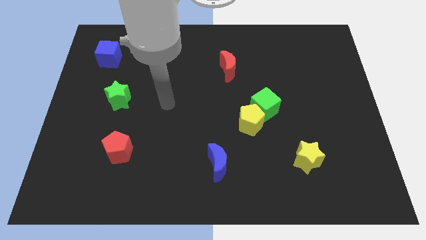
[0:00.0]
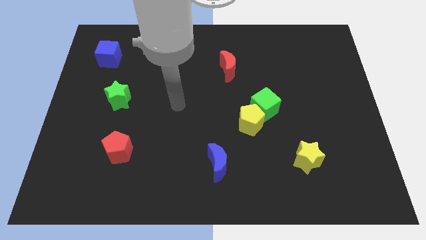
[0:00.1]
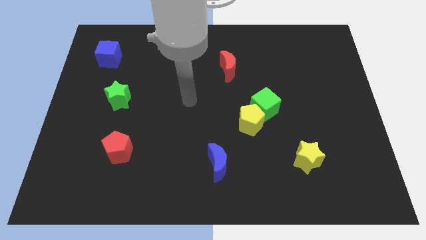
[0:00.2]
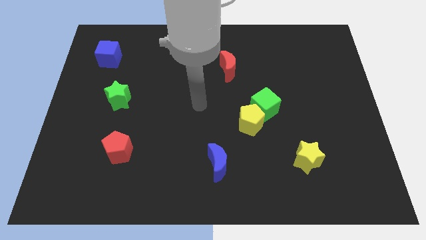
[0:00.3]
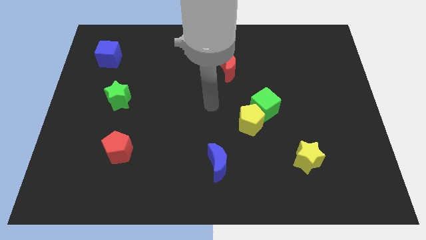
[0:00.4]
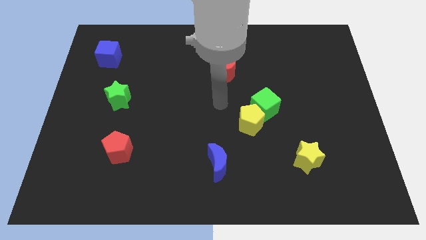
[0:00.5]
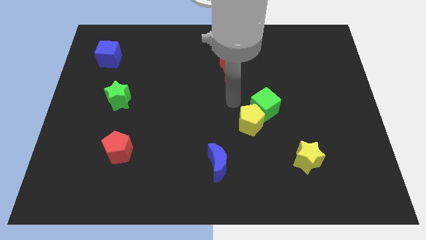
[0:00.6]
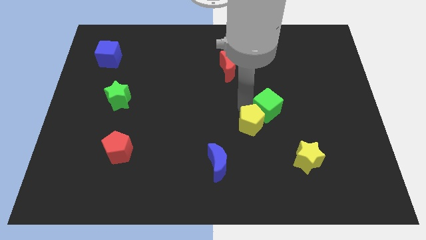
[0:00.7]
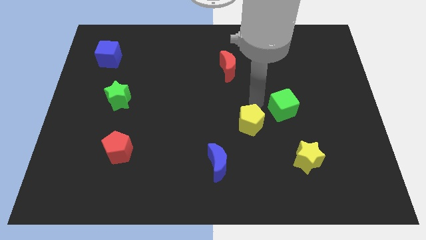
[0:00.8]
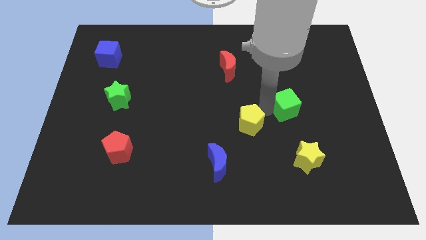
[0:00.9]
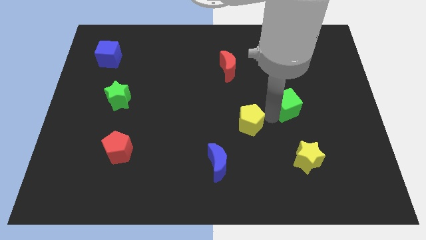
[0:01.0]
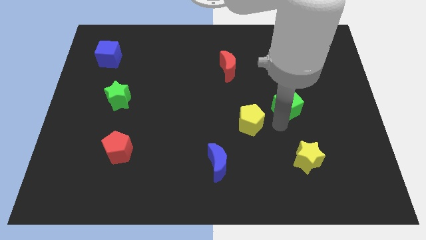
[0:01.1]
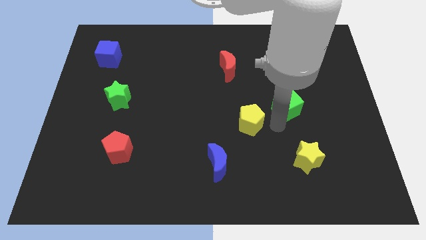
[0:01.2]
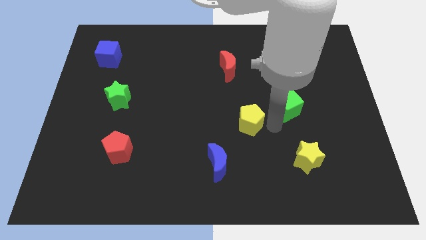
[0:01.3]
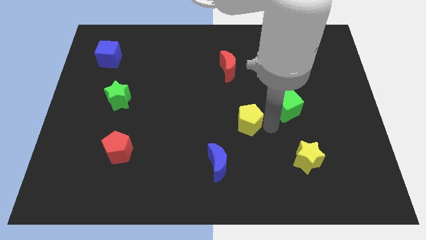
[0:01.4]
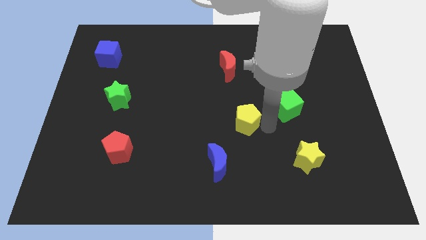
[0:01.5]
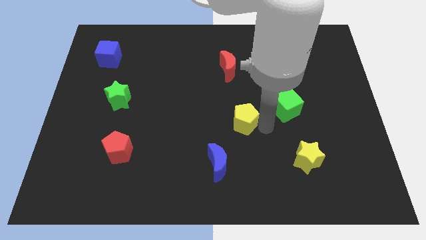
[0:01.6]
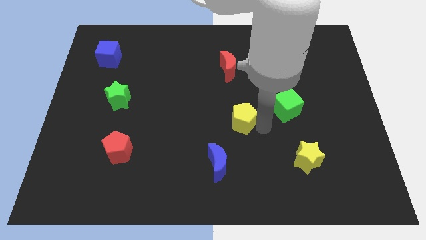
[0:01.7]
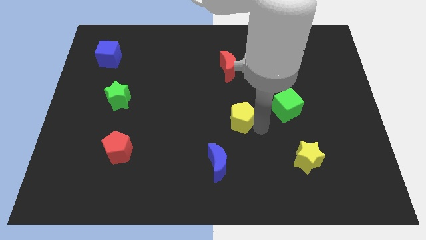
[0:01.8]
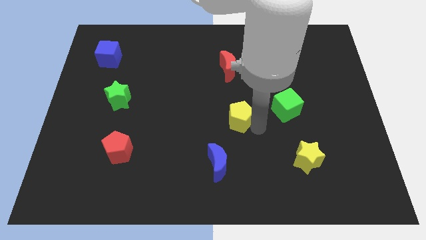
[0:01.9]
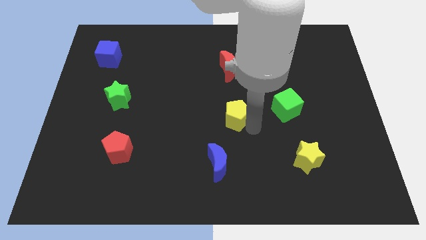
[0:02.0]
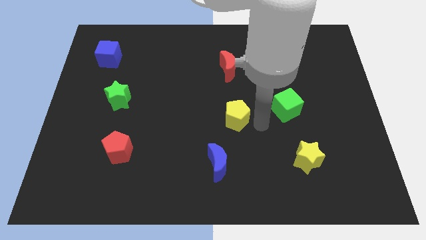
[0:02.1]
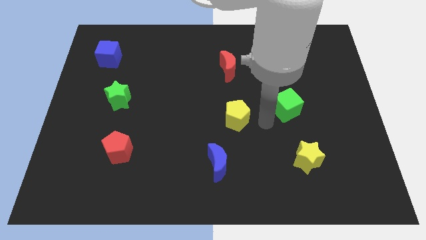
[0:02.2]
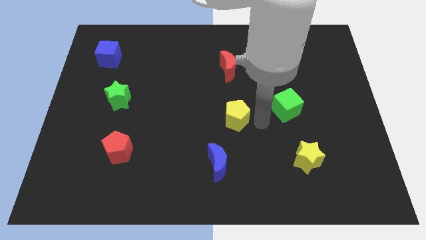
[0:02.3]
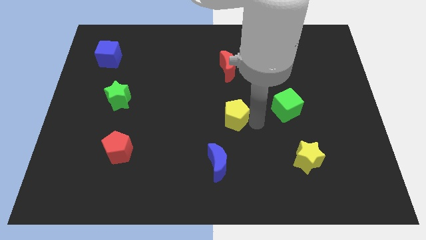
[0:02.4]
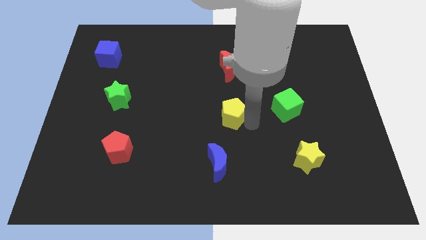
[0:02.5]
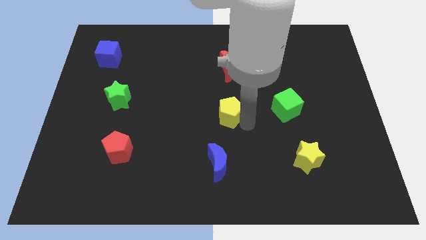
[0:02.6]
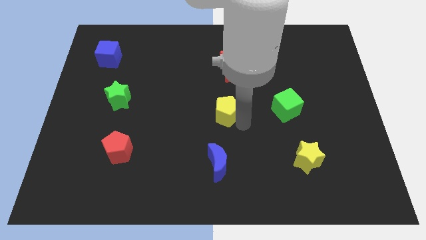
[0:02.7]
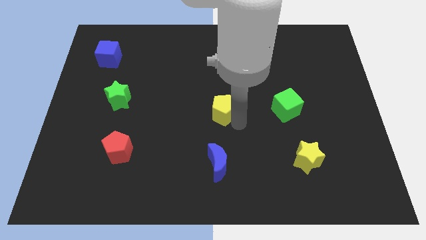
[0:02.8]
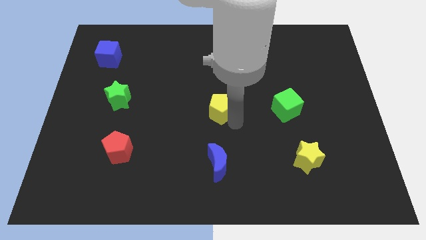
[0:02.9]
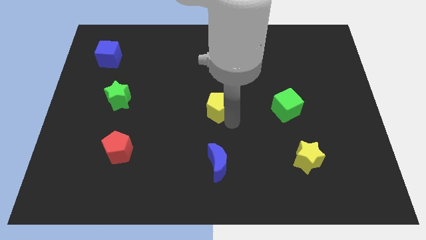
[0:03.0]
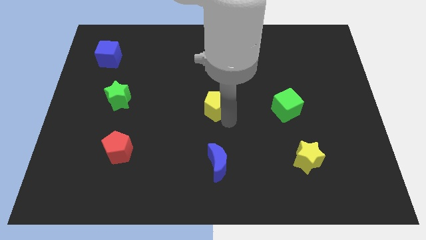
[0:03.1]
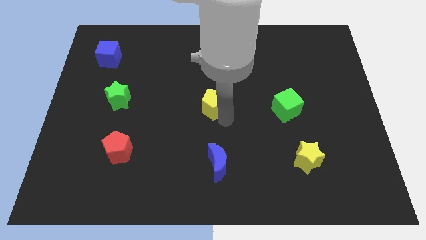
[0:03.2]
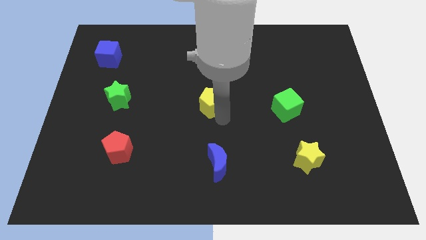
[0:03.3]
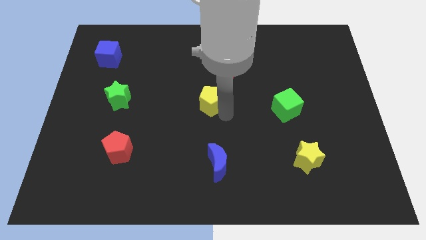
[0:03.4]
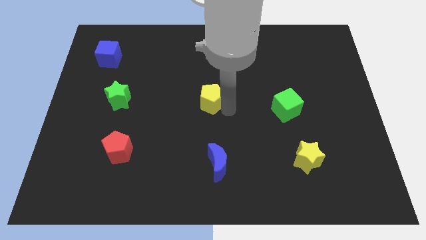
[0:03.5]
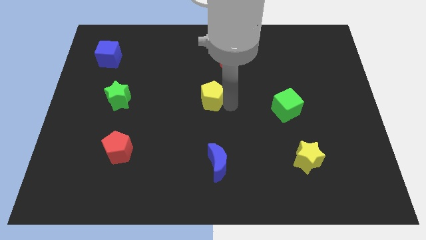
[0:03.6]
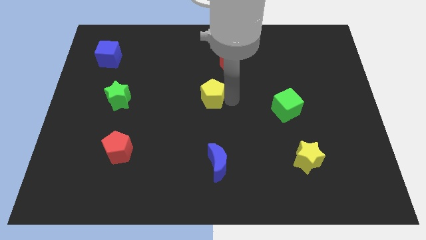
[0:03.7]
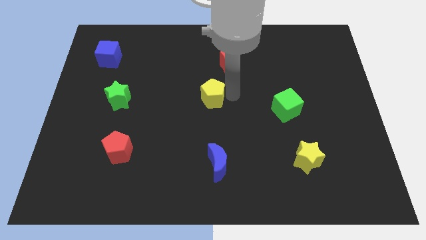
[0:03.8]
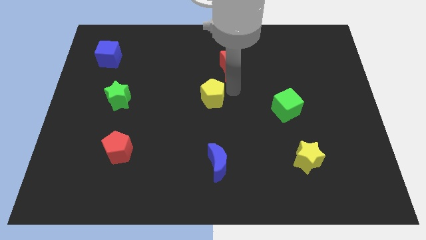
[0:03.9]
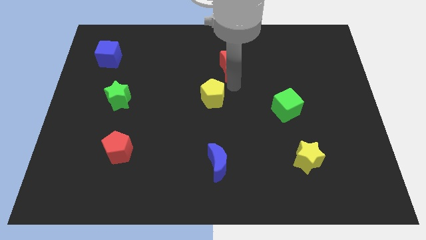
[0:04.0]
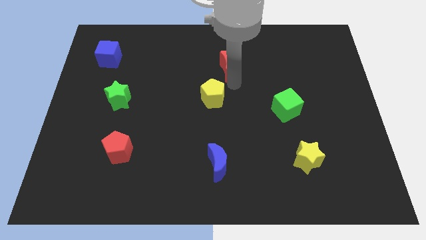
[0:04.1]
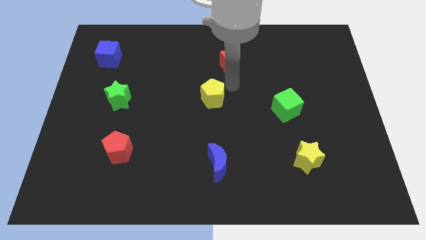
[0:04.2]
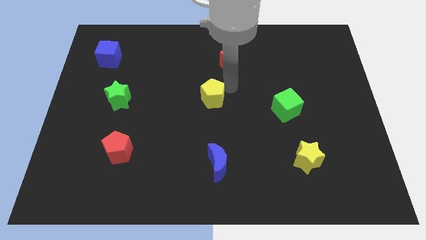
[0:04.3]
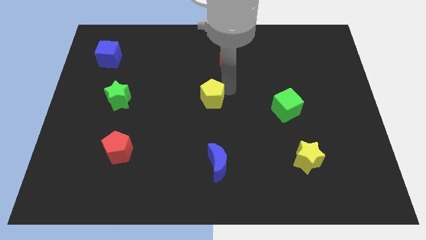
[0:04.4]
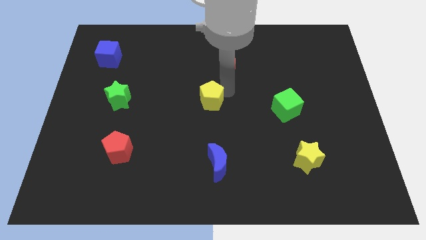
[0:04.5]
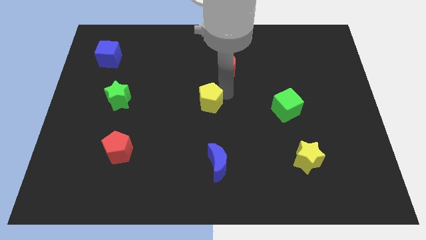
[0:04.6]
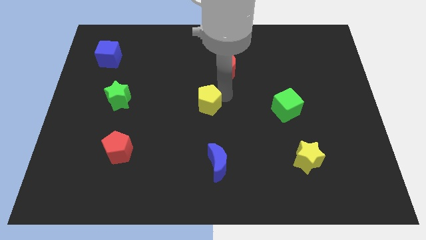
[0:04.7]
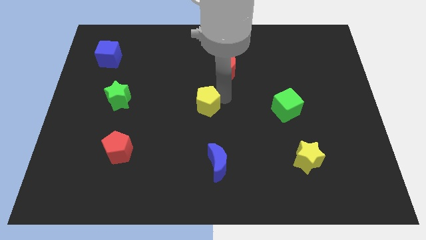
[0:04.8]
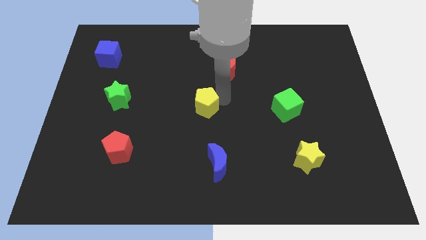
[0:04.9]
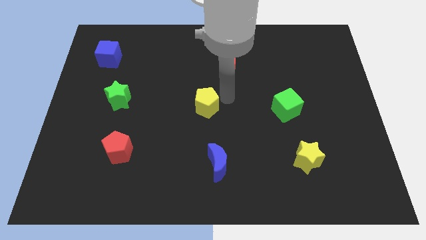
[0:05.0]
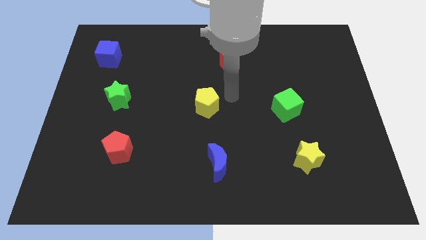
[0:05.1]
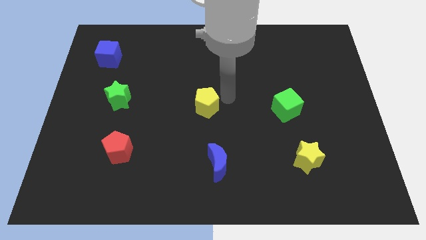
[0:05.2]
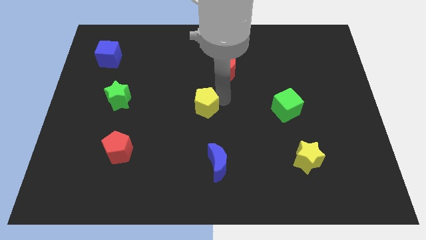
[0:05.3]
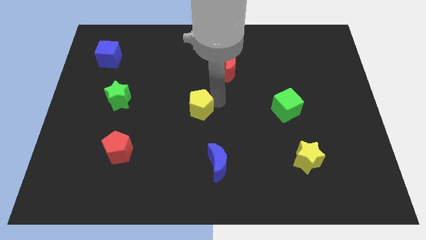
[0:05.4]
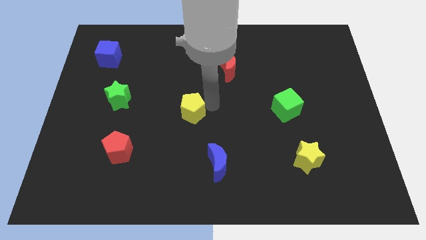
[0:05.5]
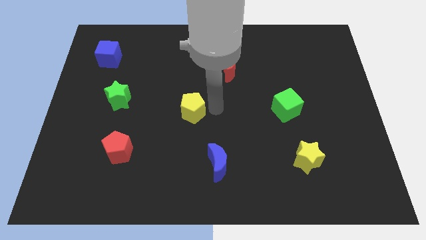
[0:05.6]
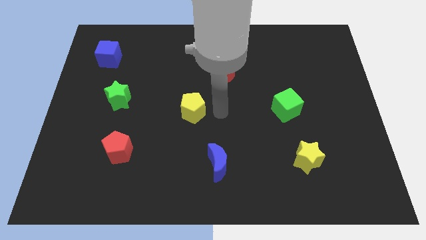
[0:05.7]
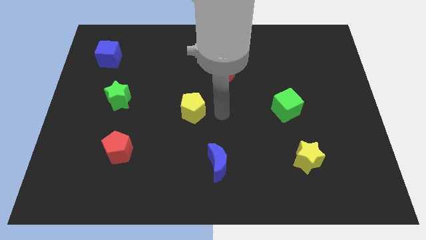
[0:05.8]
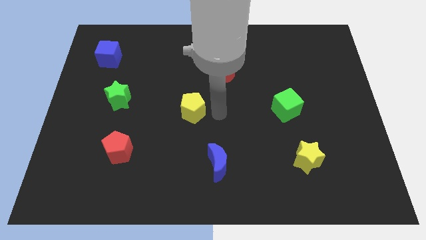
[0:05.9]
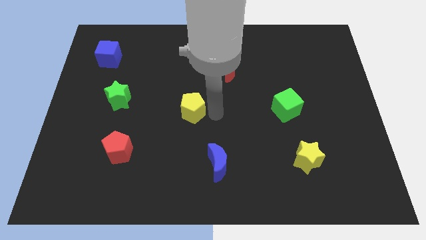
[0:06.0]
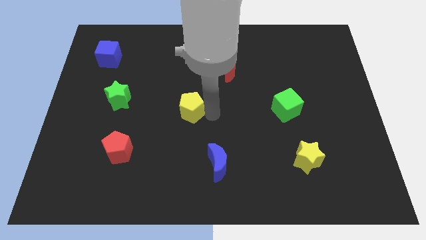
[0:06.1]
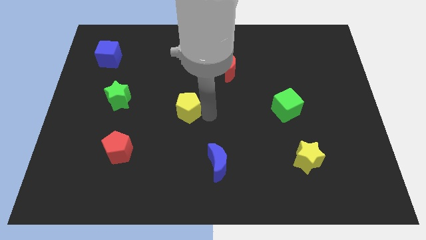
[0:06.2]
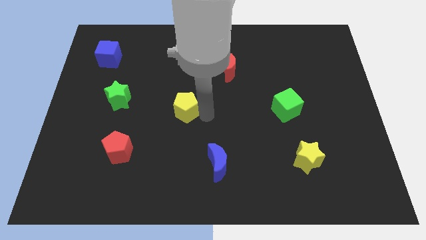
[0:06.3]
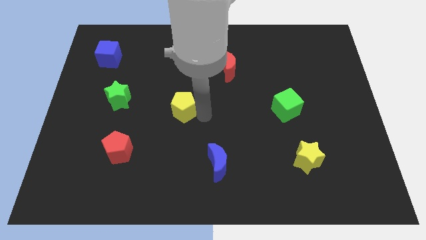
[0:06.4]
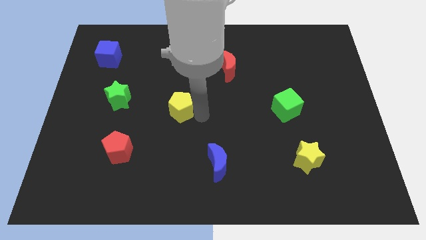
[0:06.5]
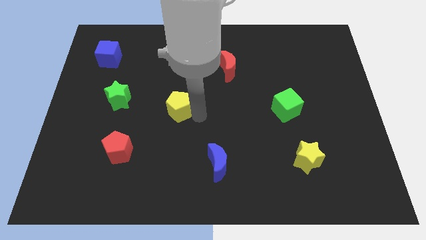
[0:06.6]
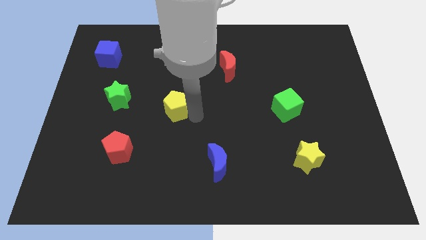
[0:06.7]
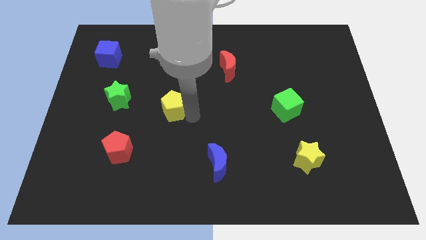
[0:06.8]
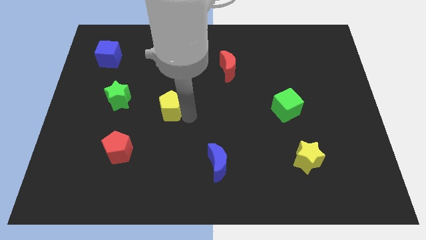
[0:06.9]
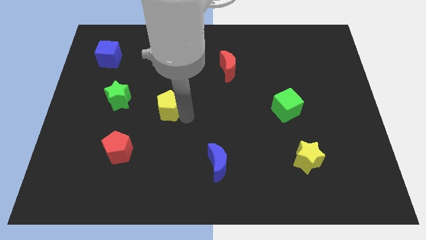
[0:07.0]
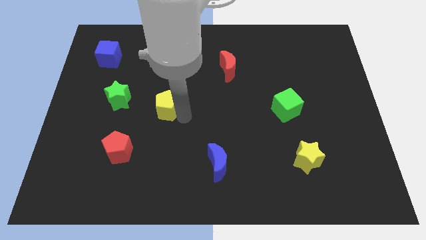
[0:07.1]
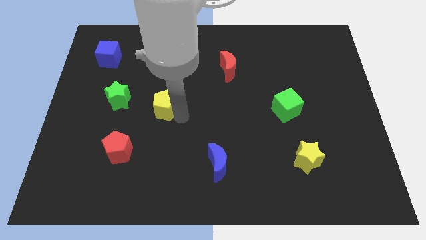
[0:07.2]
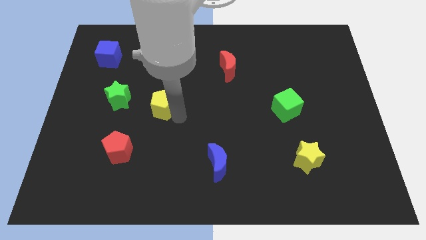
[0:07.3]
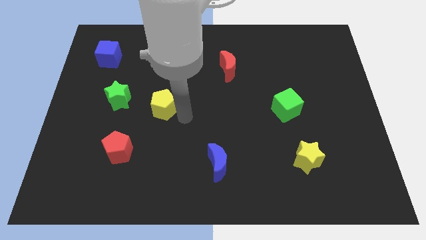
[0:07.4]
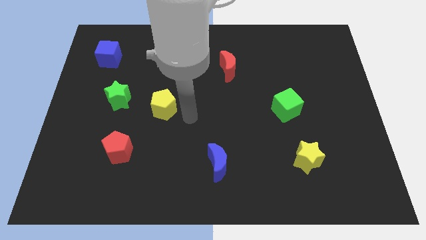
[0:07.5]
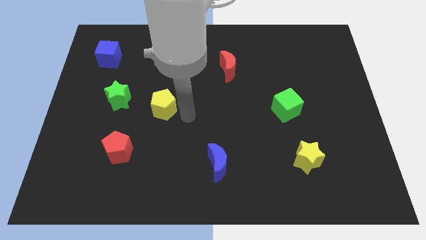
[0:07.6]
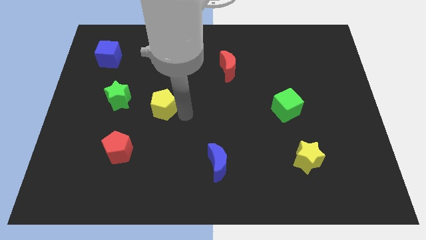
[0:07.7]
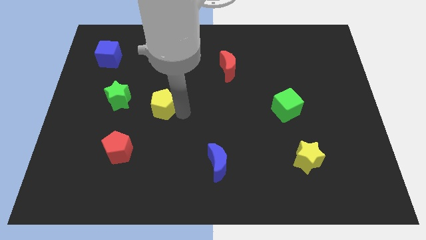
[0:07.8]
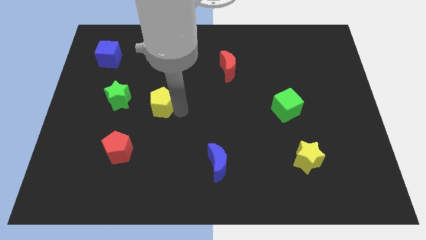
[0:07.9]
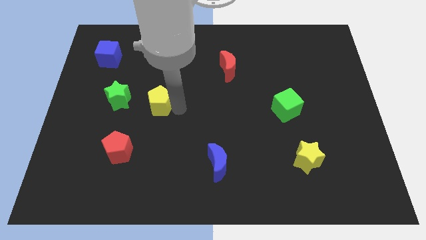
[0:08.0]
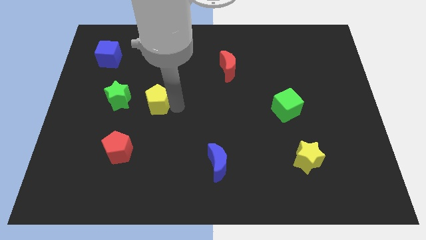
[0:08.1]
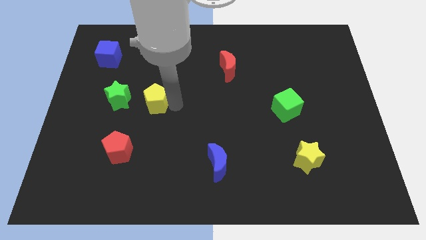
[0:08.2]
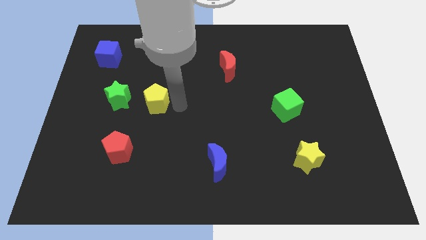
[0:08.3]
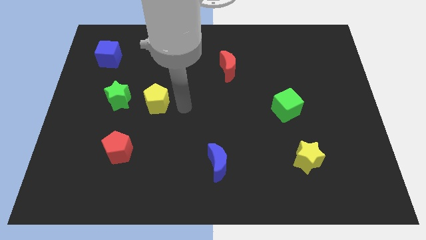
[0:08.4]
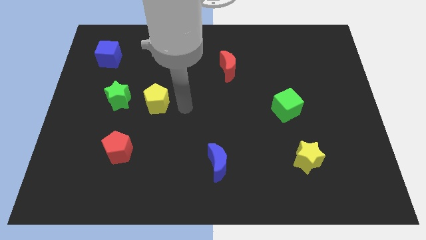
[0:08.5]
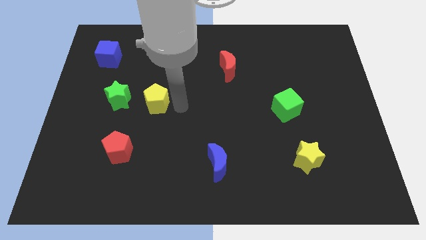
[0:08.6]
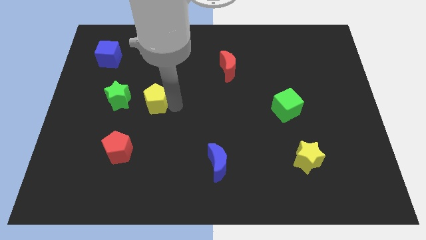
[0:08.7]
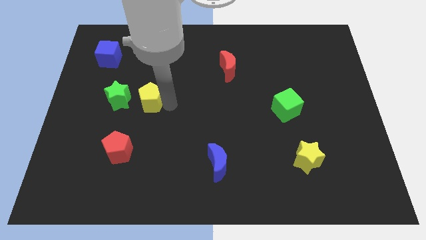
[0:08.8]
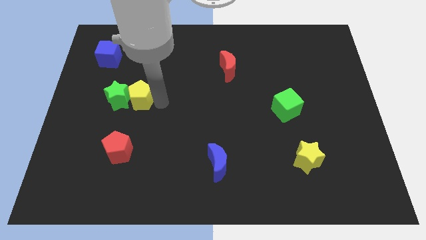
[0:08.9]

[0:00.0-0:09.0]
slide the yellow pentagon to the green star
